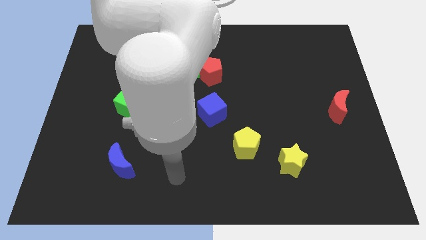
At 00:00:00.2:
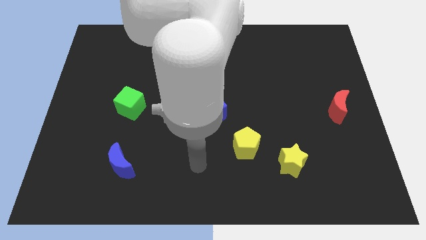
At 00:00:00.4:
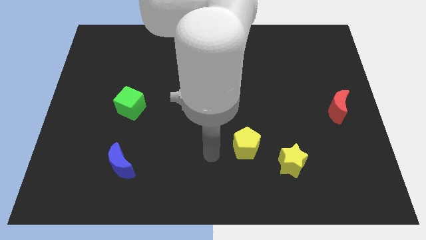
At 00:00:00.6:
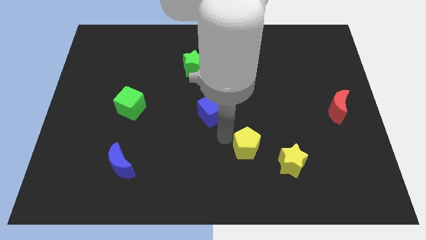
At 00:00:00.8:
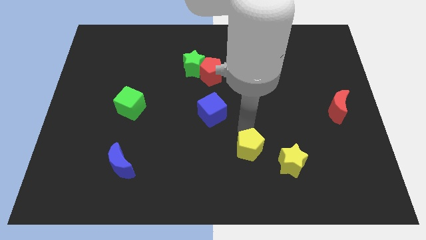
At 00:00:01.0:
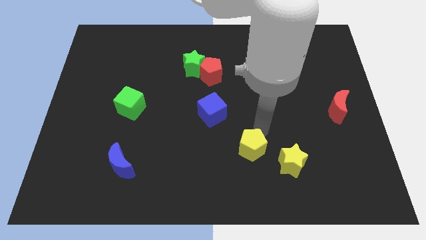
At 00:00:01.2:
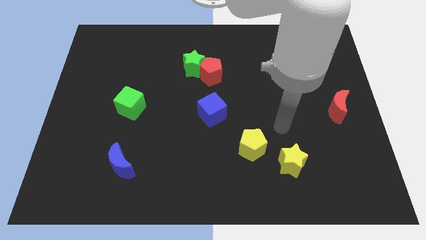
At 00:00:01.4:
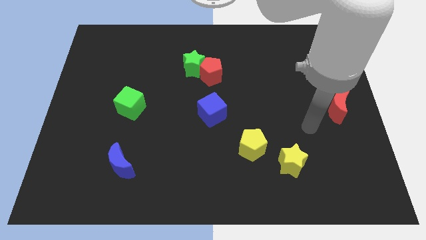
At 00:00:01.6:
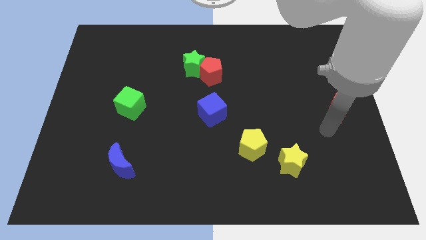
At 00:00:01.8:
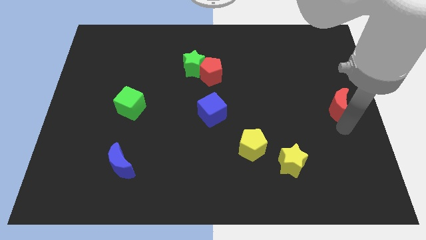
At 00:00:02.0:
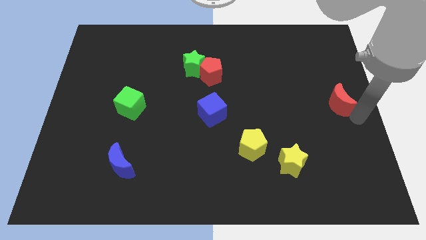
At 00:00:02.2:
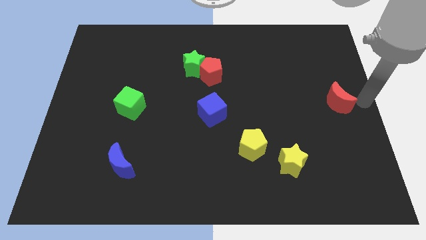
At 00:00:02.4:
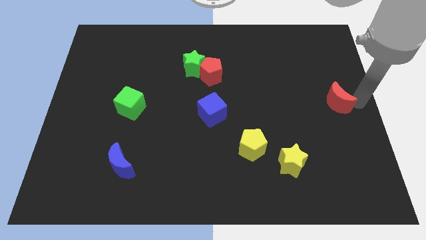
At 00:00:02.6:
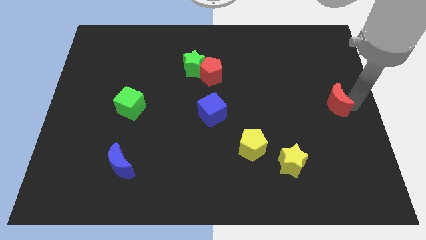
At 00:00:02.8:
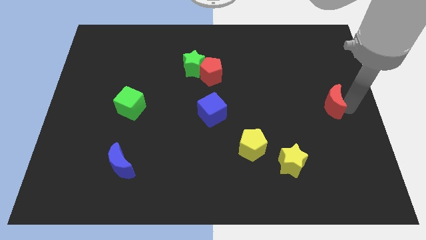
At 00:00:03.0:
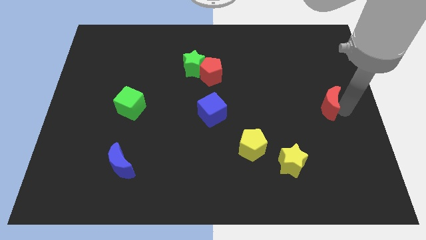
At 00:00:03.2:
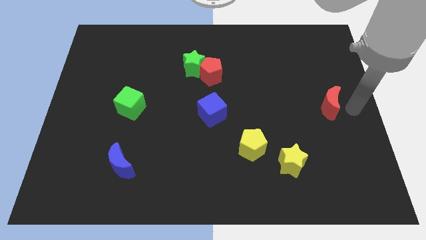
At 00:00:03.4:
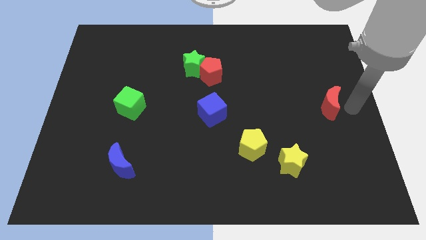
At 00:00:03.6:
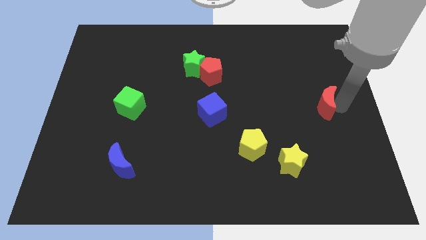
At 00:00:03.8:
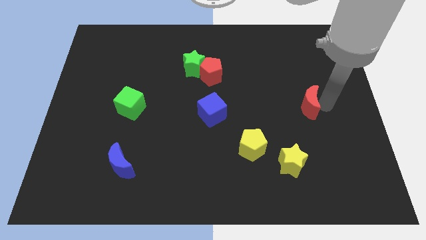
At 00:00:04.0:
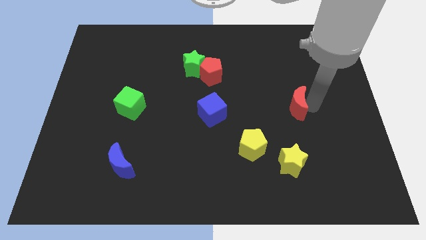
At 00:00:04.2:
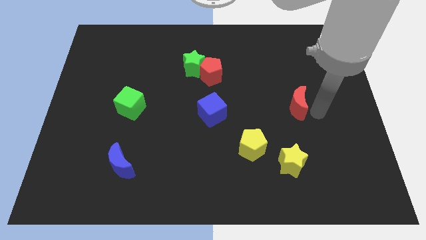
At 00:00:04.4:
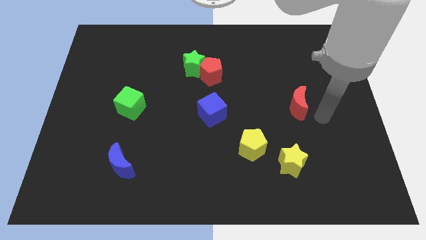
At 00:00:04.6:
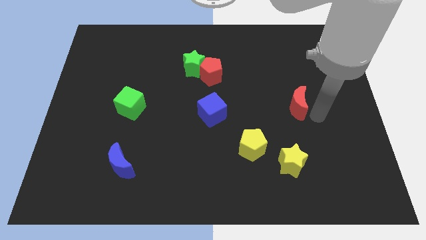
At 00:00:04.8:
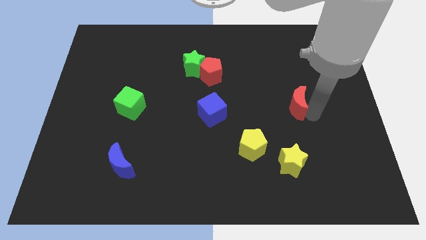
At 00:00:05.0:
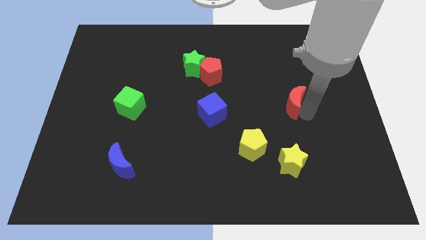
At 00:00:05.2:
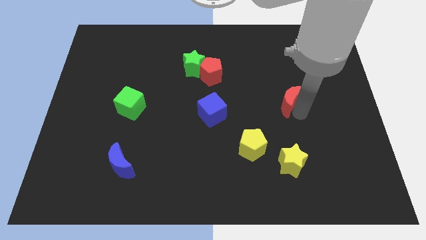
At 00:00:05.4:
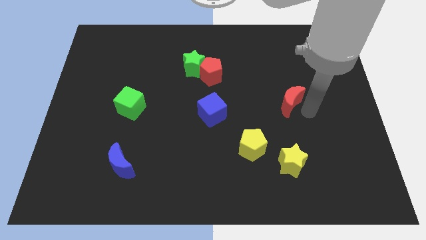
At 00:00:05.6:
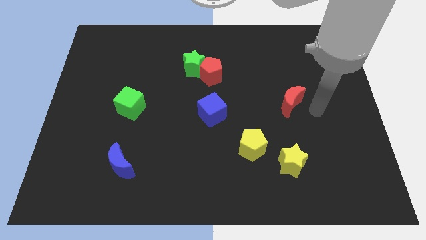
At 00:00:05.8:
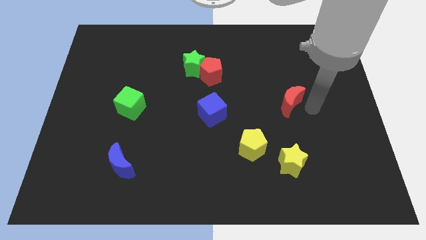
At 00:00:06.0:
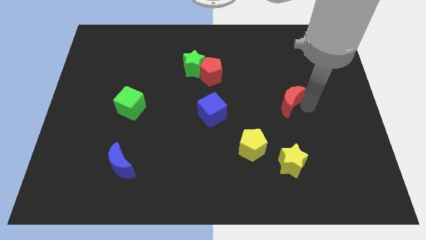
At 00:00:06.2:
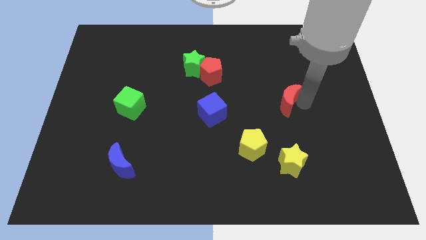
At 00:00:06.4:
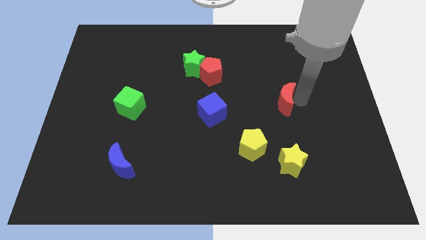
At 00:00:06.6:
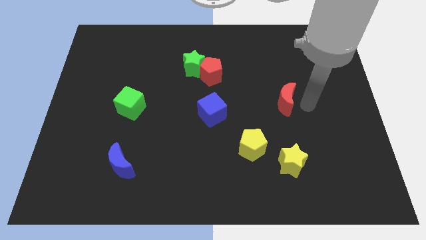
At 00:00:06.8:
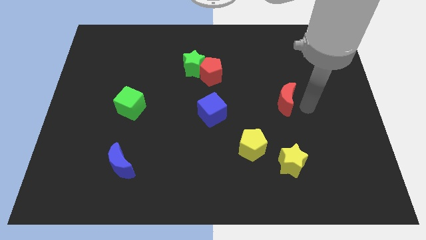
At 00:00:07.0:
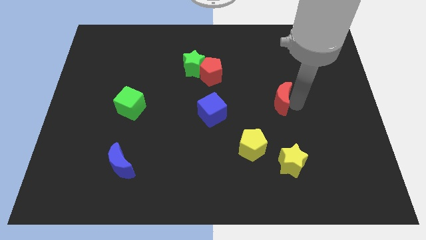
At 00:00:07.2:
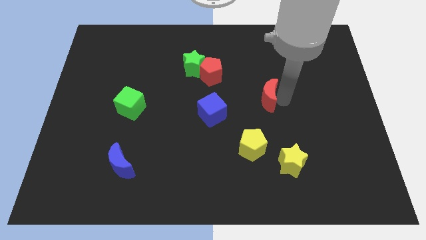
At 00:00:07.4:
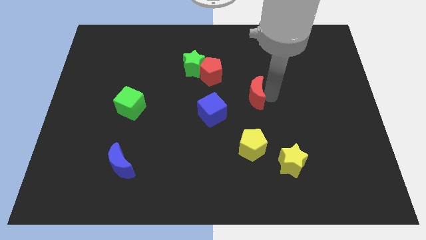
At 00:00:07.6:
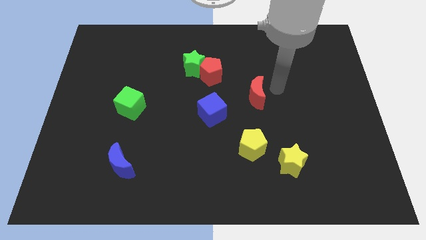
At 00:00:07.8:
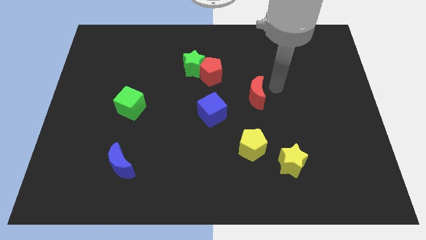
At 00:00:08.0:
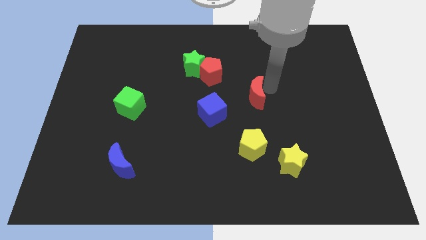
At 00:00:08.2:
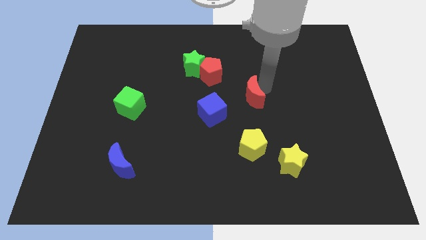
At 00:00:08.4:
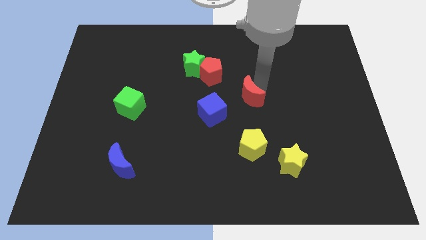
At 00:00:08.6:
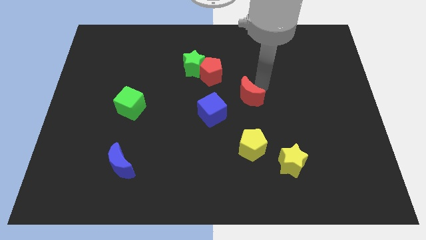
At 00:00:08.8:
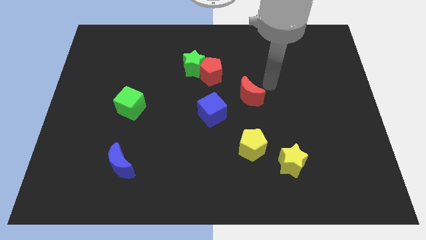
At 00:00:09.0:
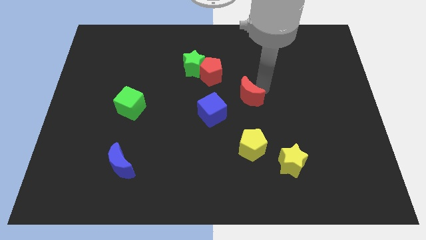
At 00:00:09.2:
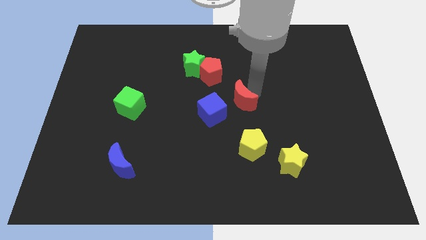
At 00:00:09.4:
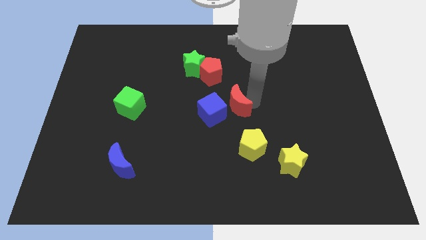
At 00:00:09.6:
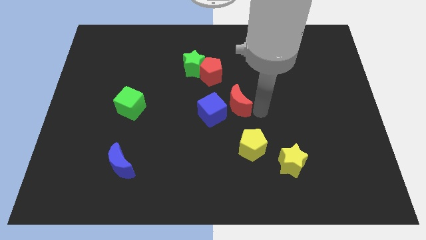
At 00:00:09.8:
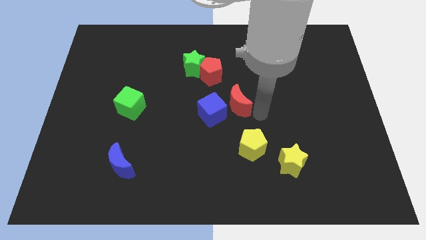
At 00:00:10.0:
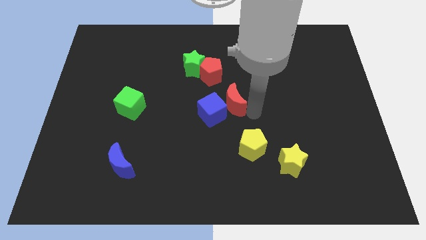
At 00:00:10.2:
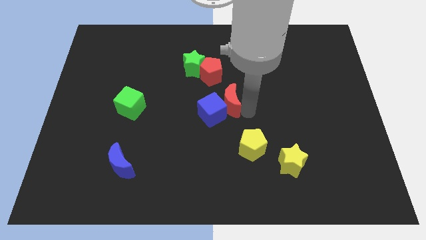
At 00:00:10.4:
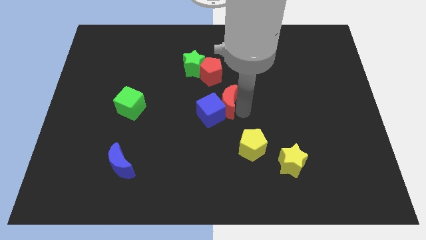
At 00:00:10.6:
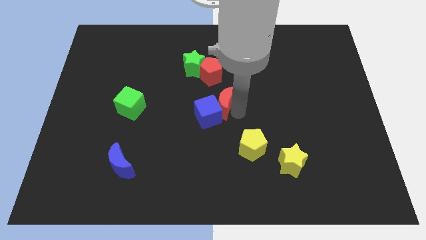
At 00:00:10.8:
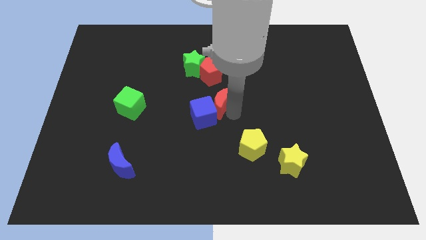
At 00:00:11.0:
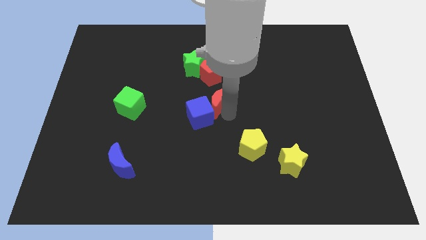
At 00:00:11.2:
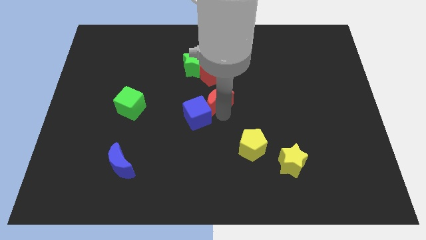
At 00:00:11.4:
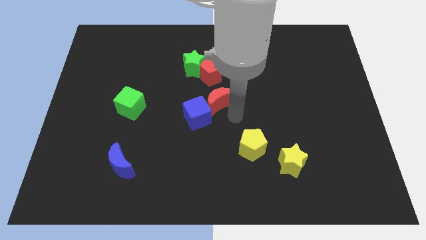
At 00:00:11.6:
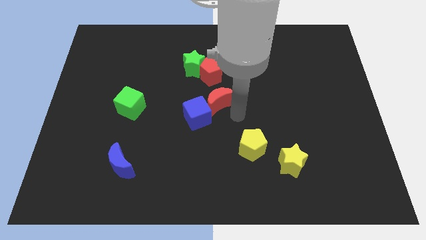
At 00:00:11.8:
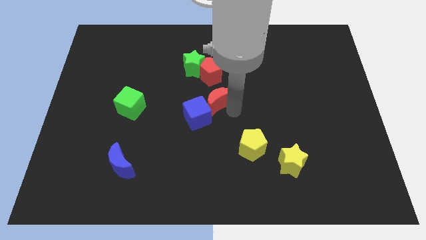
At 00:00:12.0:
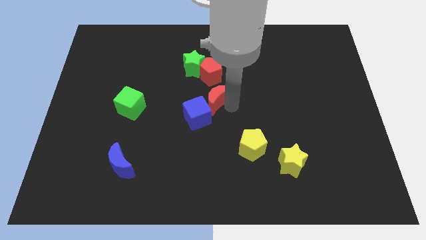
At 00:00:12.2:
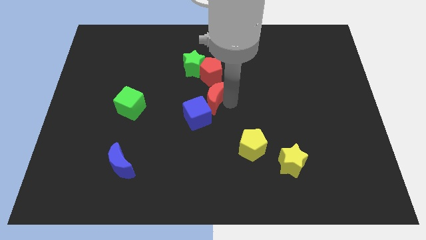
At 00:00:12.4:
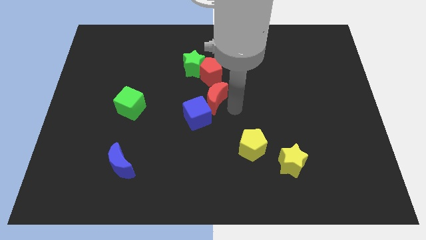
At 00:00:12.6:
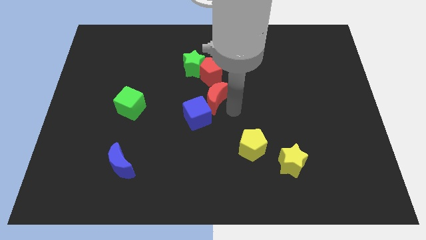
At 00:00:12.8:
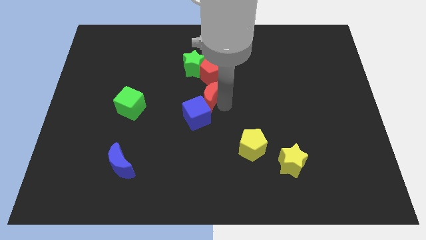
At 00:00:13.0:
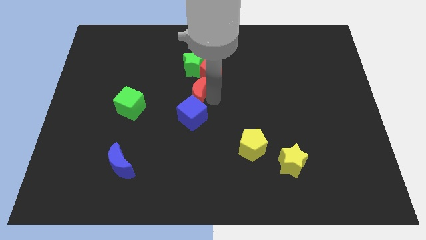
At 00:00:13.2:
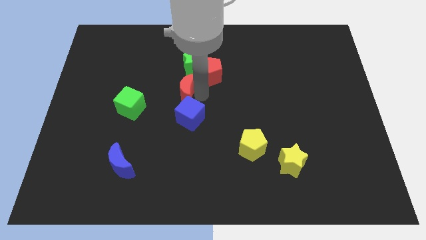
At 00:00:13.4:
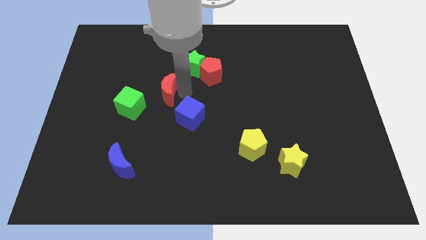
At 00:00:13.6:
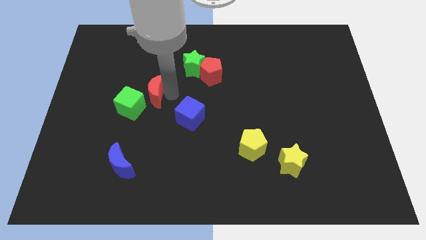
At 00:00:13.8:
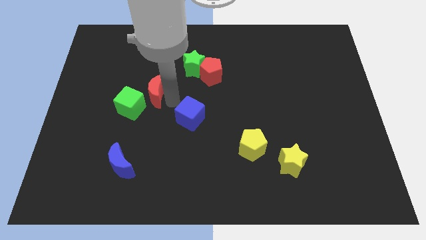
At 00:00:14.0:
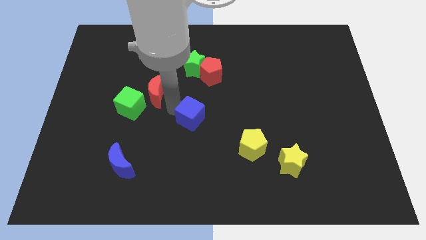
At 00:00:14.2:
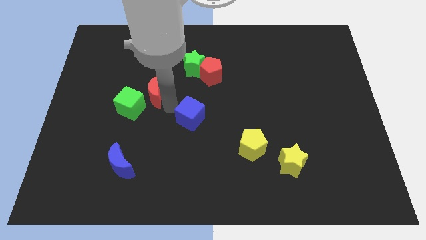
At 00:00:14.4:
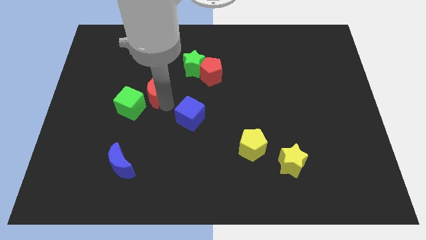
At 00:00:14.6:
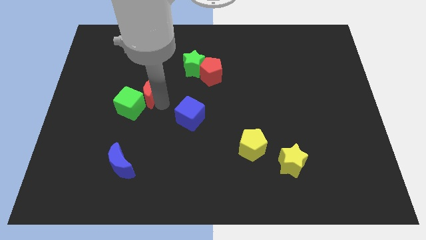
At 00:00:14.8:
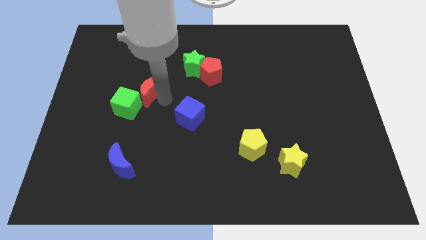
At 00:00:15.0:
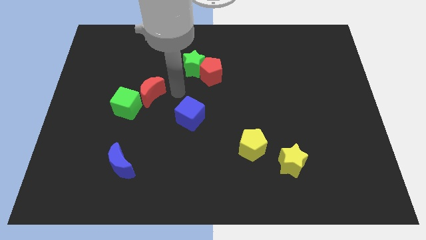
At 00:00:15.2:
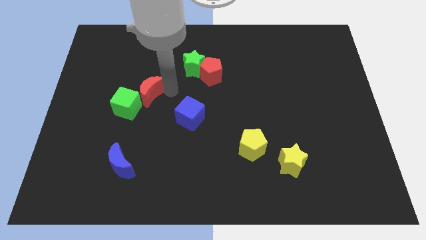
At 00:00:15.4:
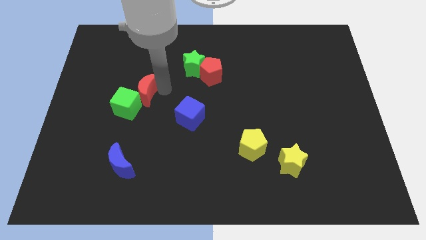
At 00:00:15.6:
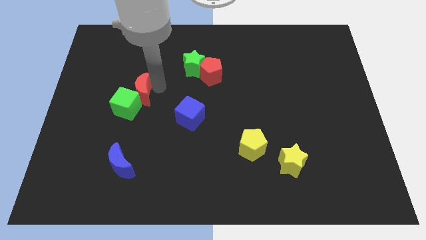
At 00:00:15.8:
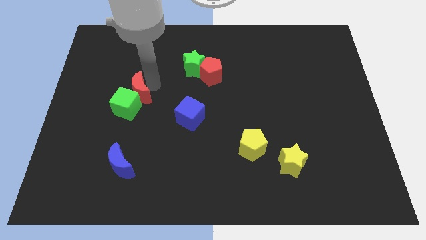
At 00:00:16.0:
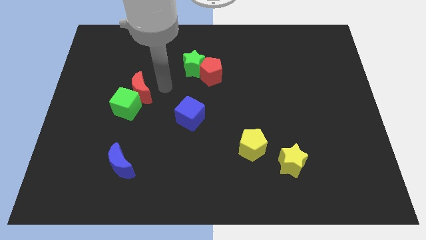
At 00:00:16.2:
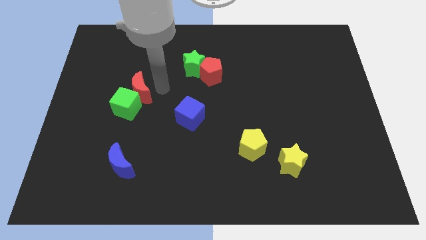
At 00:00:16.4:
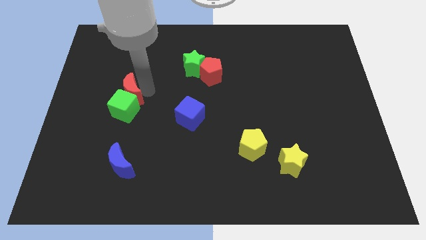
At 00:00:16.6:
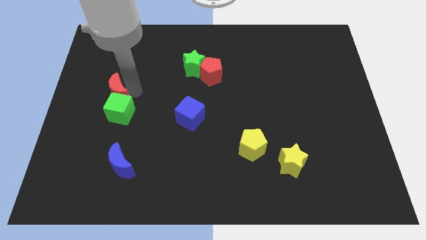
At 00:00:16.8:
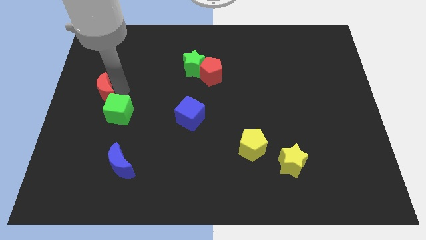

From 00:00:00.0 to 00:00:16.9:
move the red moon to the center left
